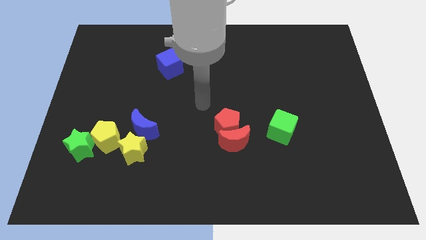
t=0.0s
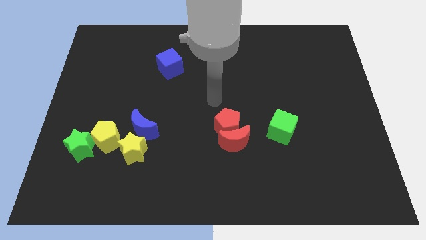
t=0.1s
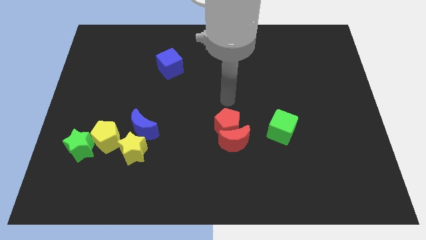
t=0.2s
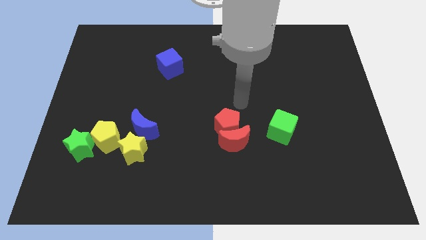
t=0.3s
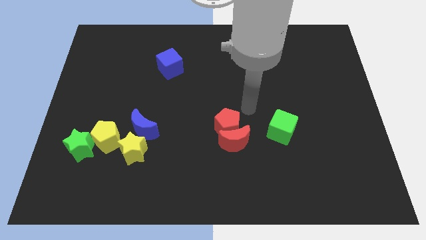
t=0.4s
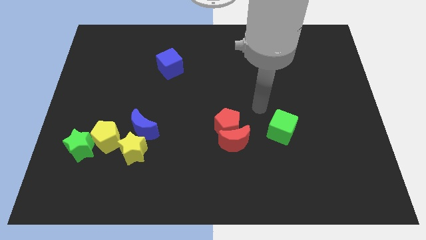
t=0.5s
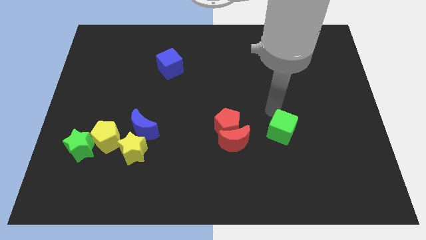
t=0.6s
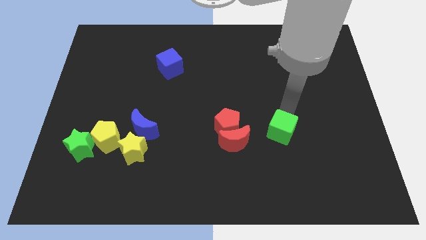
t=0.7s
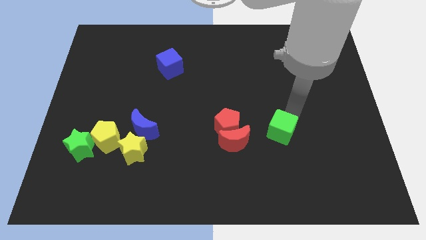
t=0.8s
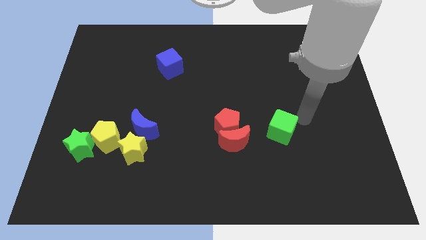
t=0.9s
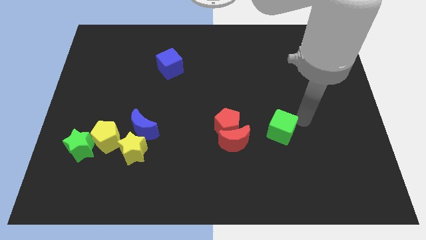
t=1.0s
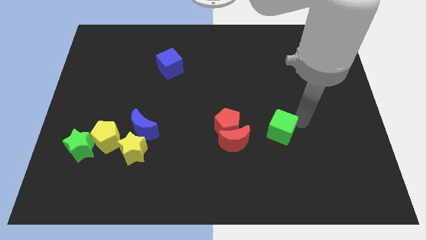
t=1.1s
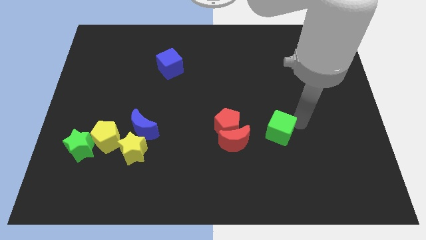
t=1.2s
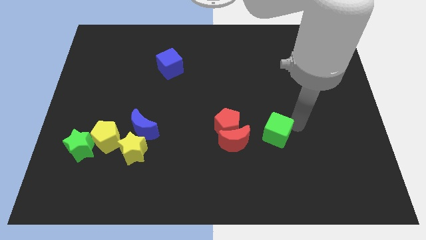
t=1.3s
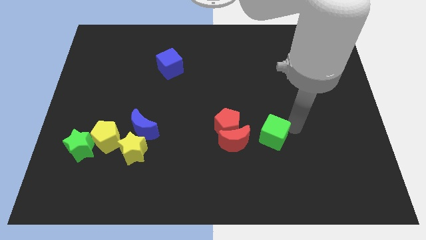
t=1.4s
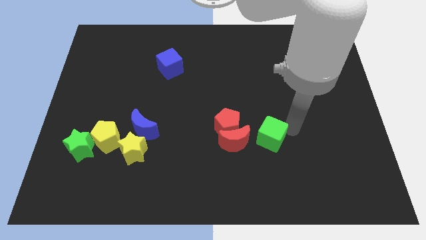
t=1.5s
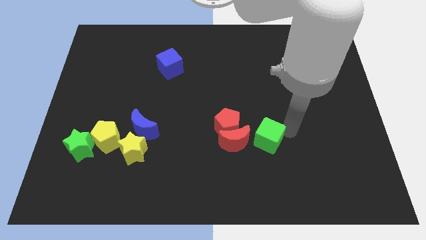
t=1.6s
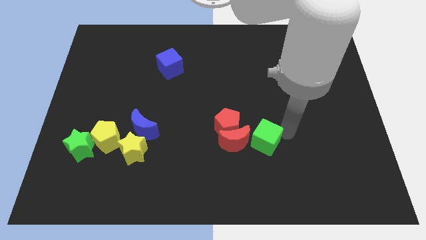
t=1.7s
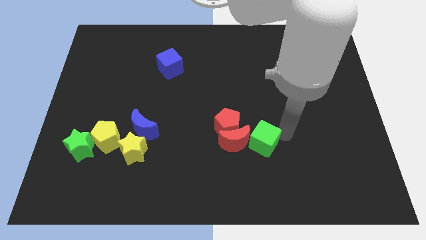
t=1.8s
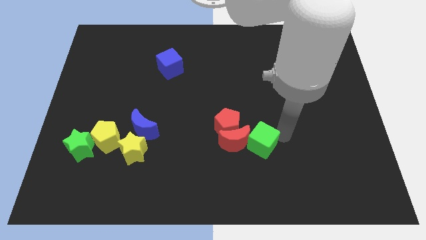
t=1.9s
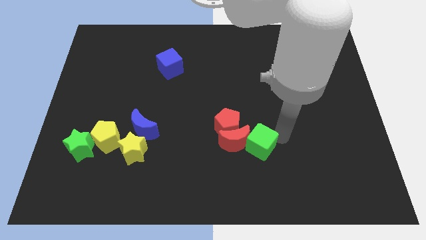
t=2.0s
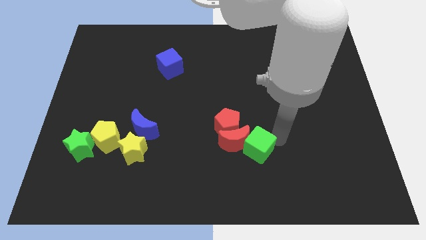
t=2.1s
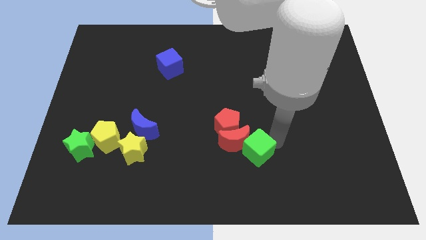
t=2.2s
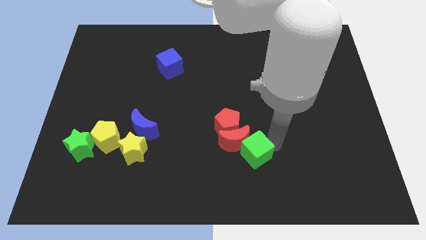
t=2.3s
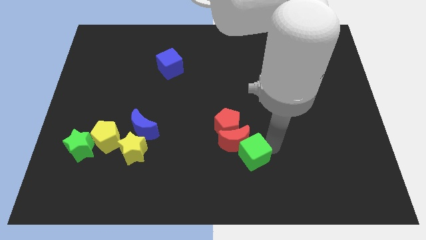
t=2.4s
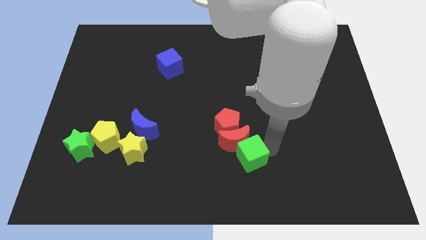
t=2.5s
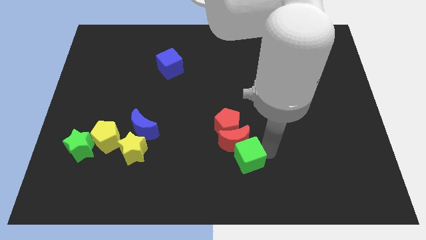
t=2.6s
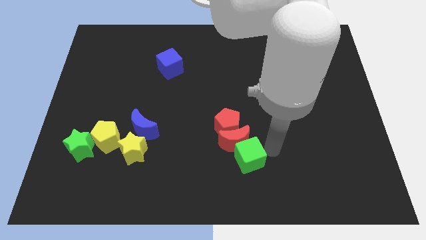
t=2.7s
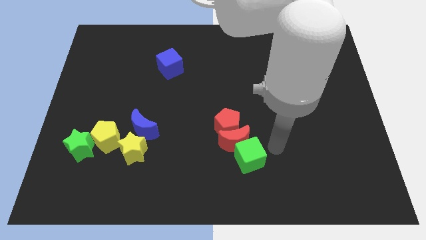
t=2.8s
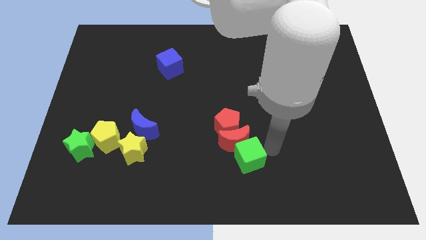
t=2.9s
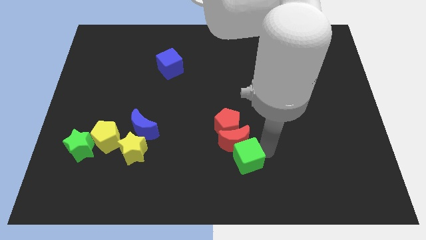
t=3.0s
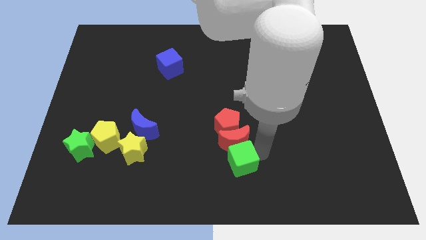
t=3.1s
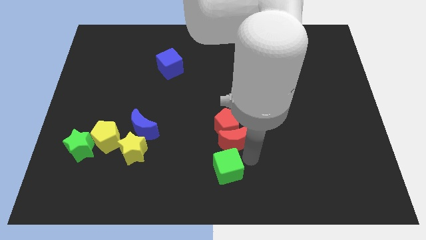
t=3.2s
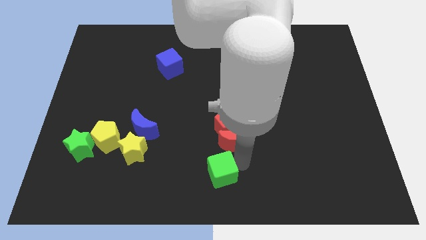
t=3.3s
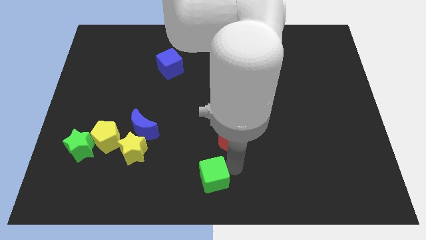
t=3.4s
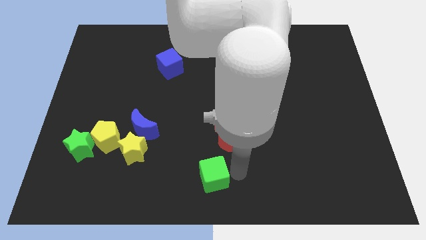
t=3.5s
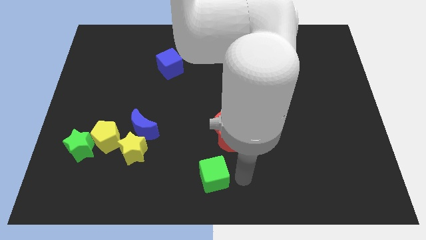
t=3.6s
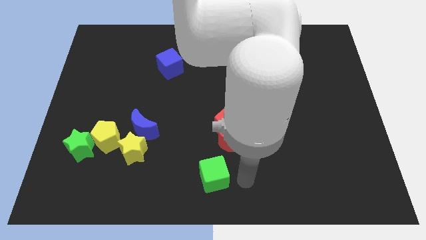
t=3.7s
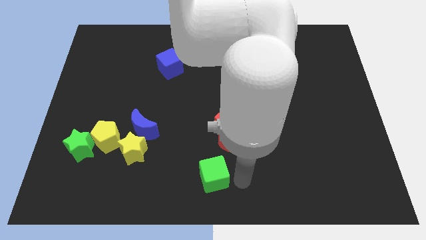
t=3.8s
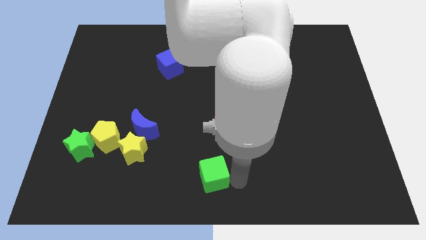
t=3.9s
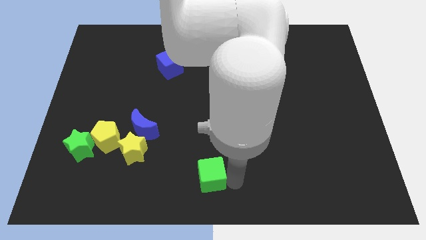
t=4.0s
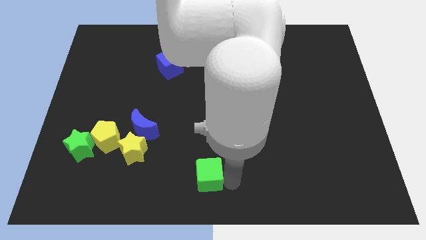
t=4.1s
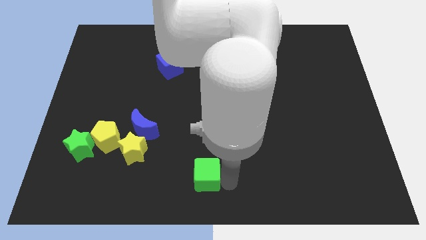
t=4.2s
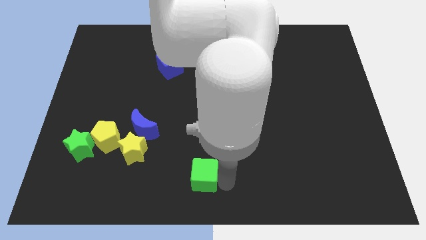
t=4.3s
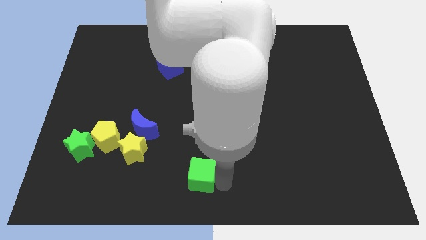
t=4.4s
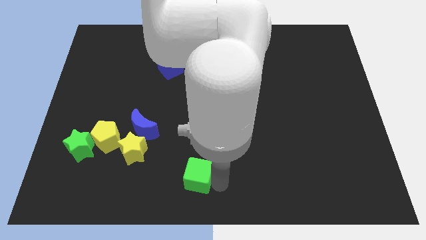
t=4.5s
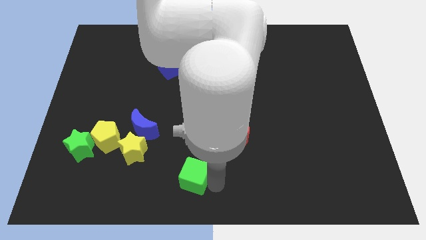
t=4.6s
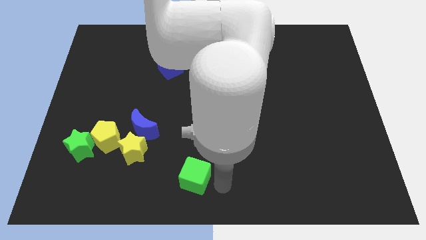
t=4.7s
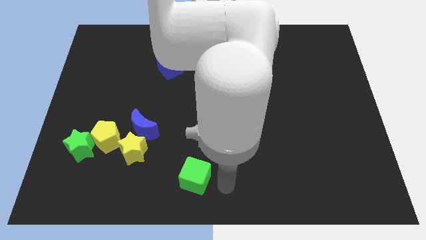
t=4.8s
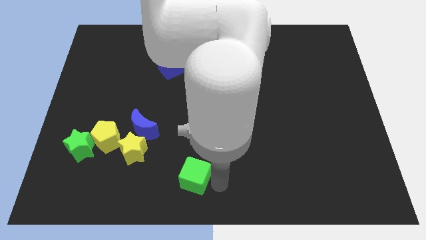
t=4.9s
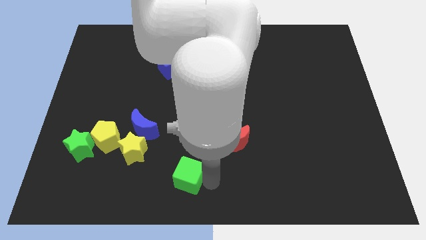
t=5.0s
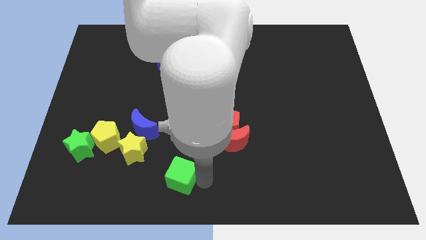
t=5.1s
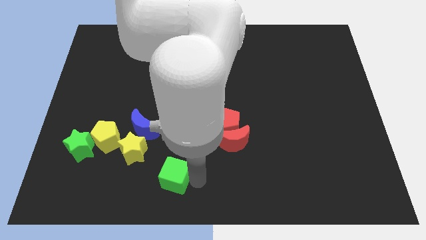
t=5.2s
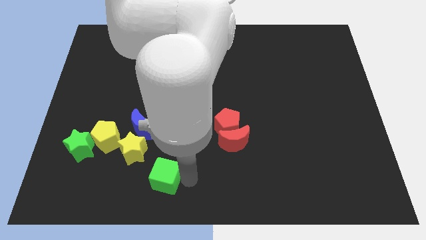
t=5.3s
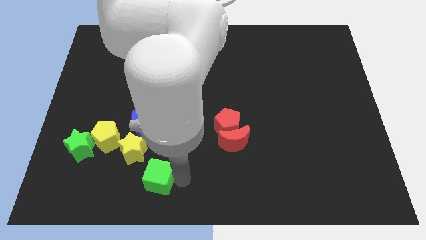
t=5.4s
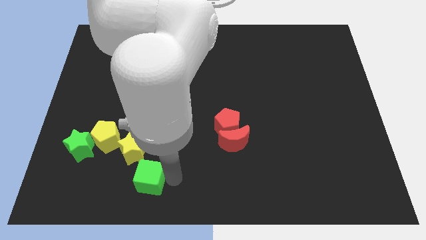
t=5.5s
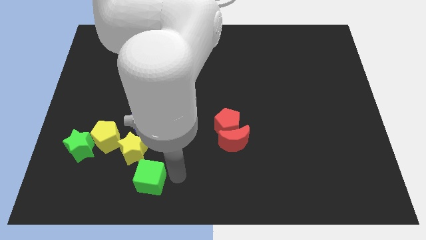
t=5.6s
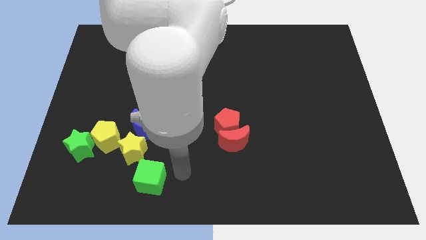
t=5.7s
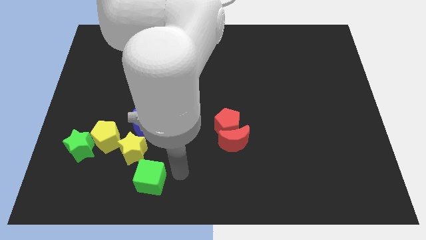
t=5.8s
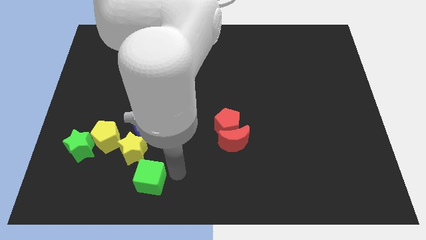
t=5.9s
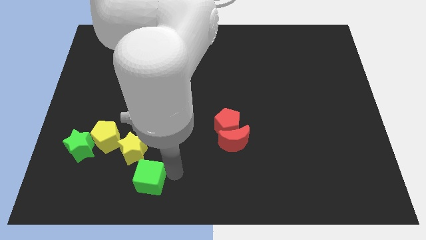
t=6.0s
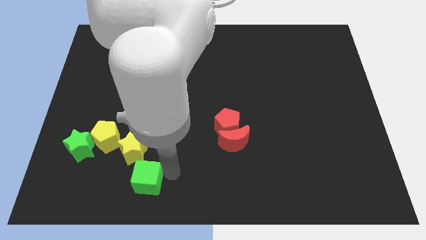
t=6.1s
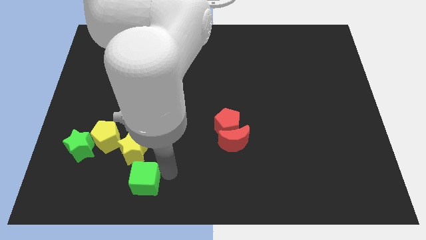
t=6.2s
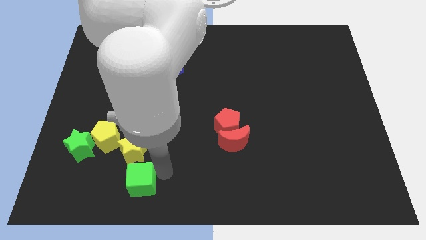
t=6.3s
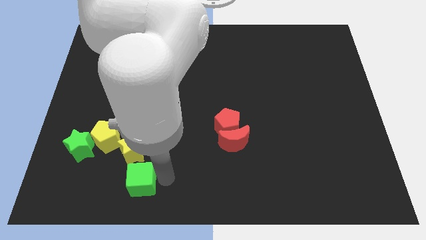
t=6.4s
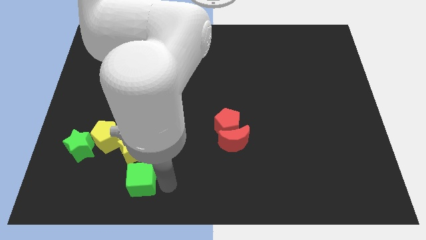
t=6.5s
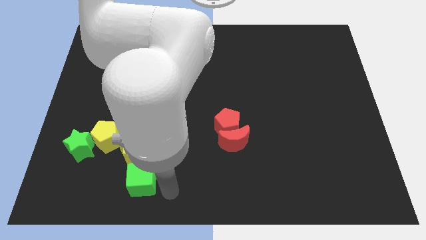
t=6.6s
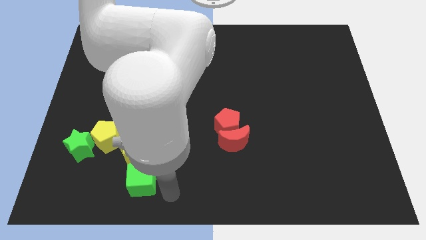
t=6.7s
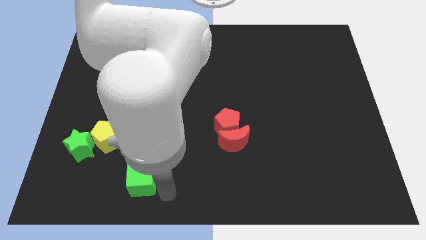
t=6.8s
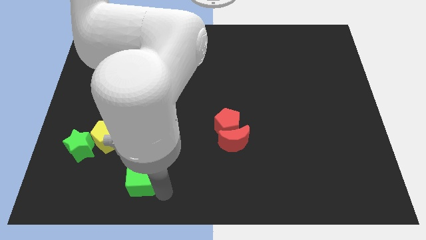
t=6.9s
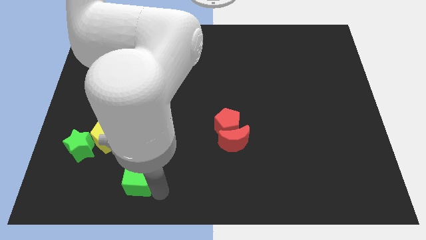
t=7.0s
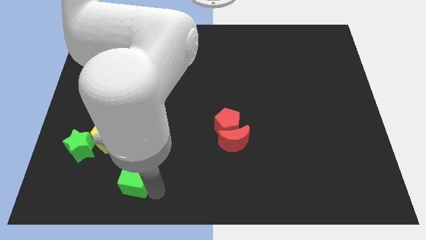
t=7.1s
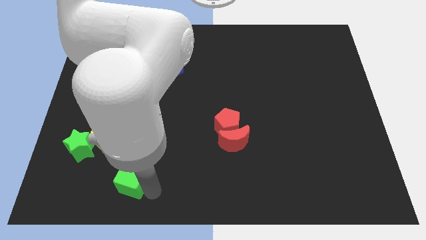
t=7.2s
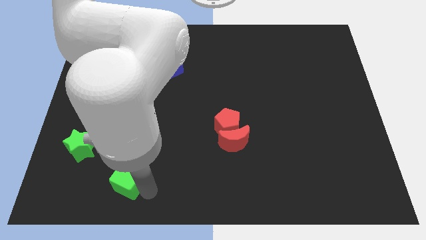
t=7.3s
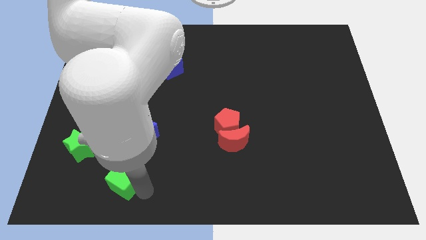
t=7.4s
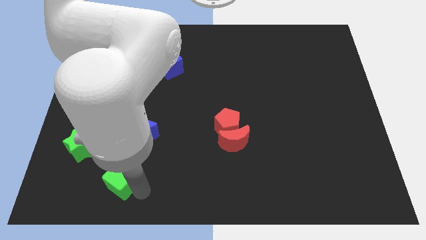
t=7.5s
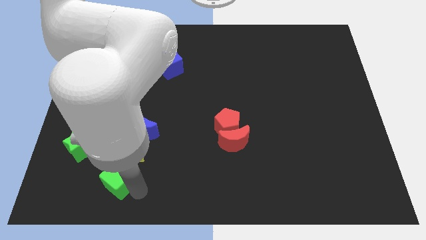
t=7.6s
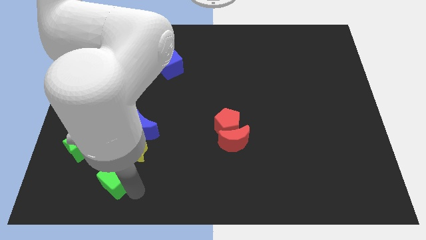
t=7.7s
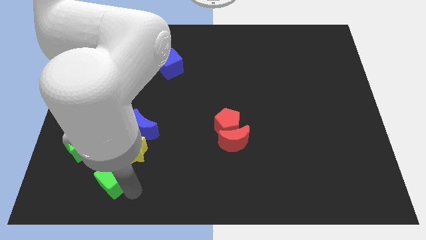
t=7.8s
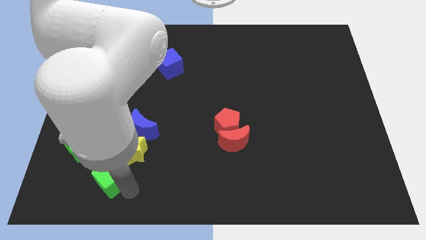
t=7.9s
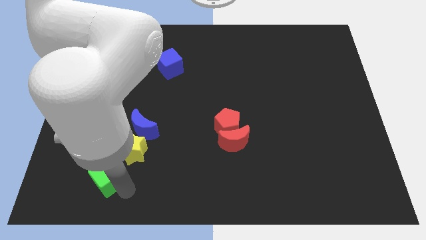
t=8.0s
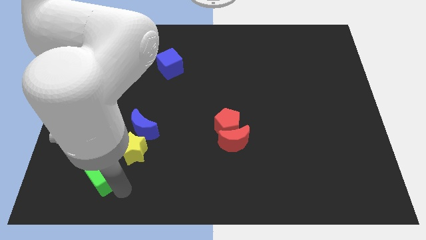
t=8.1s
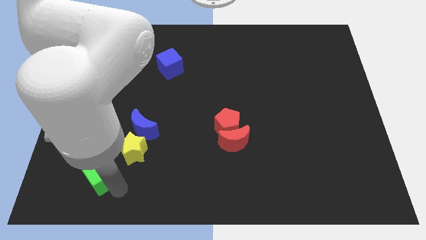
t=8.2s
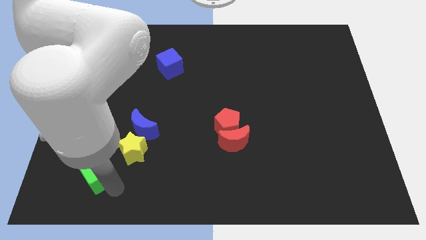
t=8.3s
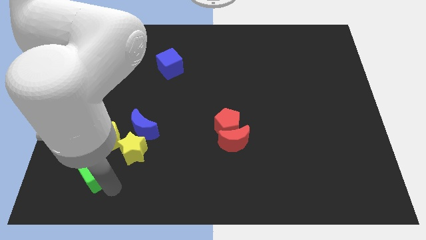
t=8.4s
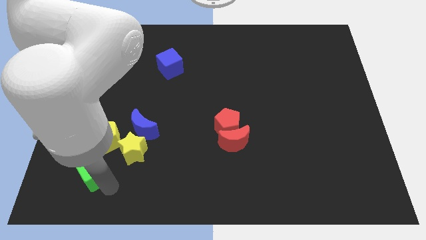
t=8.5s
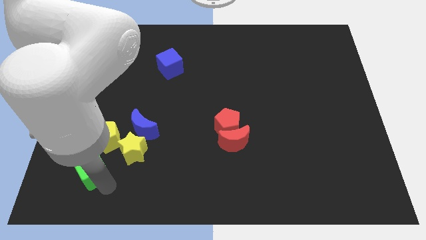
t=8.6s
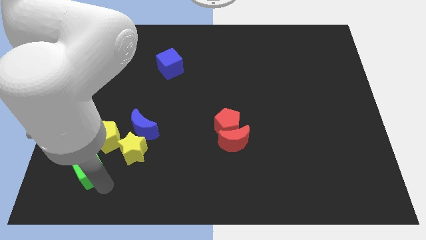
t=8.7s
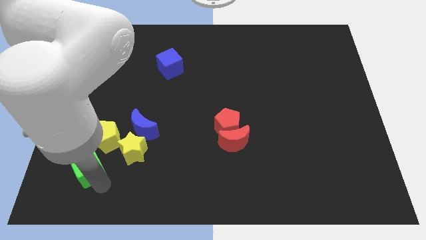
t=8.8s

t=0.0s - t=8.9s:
put the green cube next to the green star
